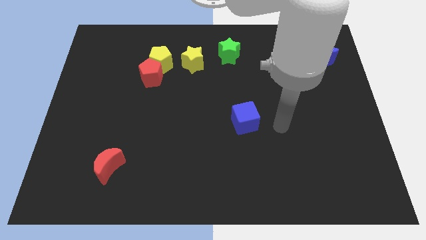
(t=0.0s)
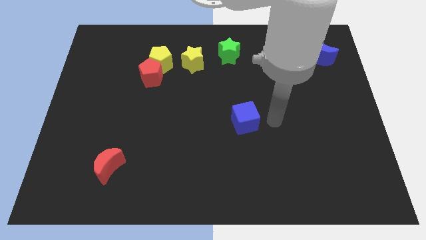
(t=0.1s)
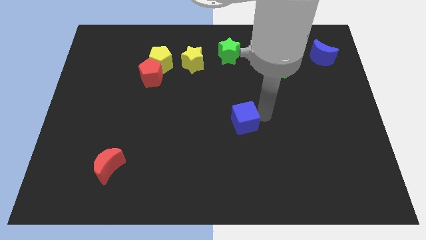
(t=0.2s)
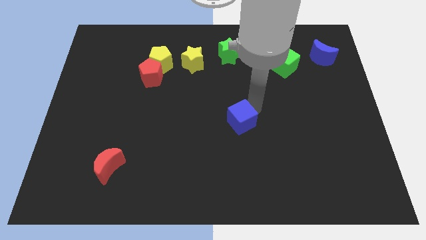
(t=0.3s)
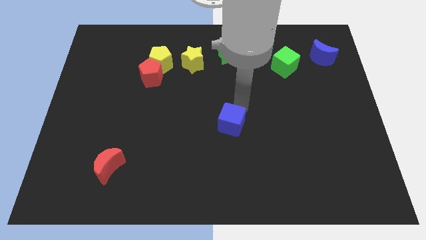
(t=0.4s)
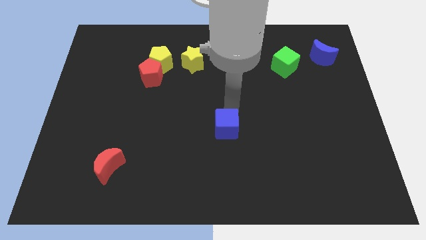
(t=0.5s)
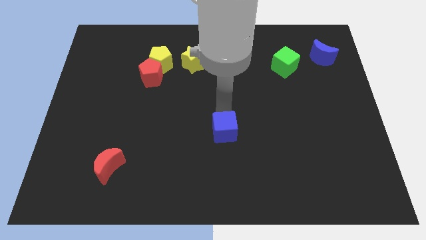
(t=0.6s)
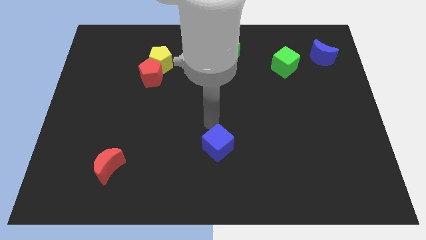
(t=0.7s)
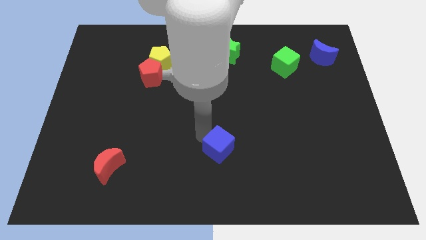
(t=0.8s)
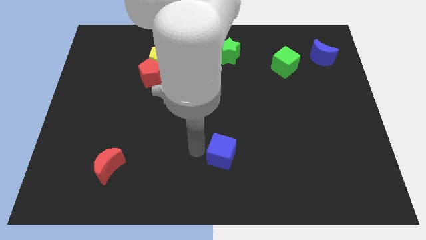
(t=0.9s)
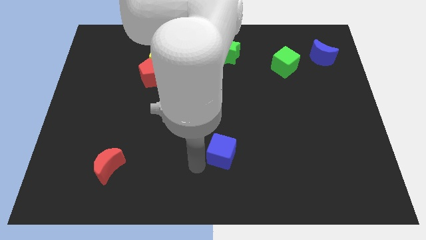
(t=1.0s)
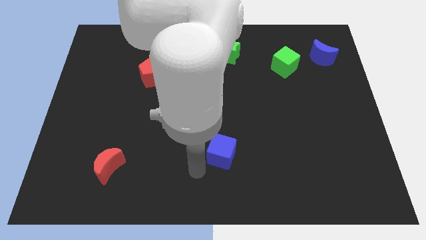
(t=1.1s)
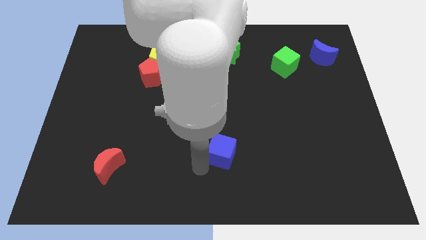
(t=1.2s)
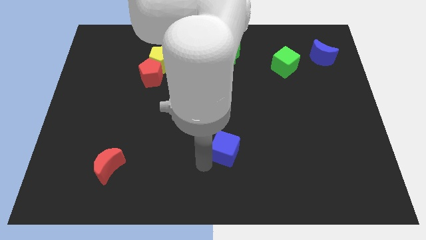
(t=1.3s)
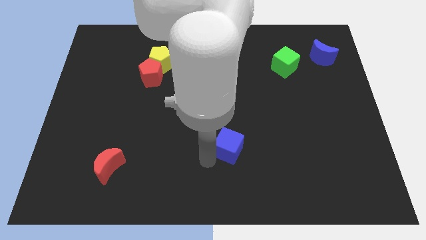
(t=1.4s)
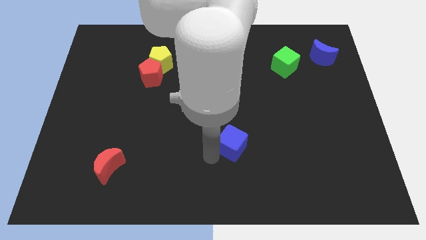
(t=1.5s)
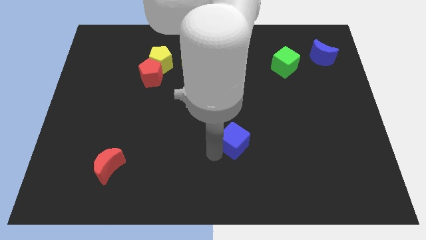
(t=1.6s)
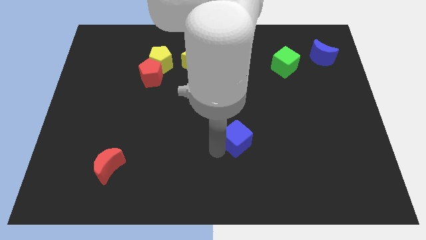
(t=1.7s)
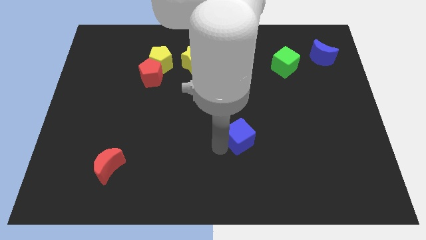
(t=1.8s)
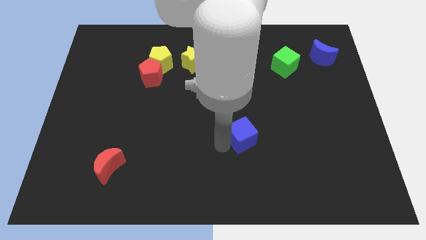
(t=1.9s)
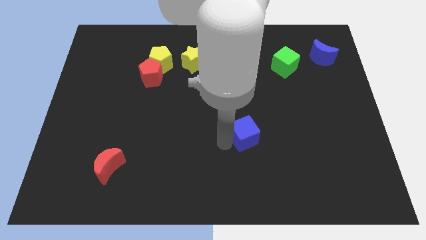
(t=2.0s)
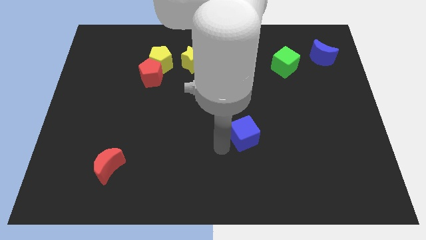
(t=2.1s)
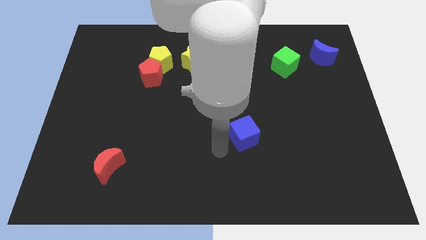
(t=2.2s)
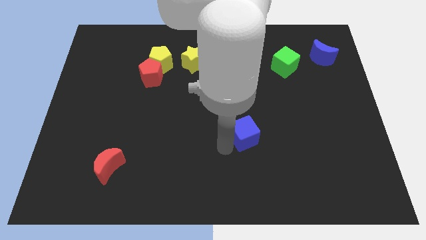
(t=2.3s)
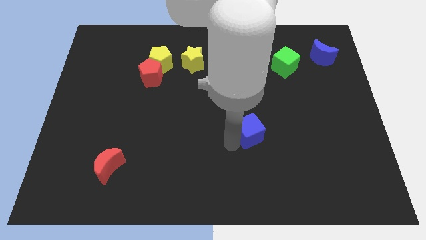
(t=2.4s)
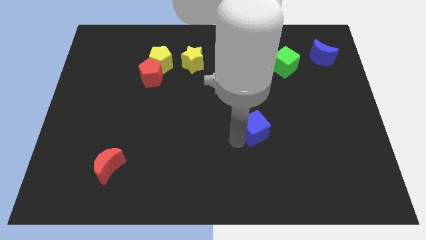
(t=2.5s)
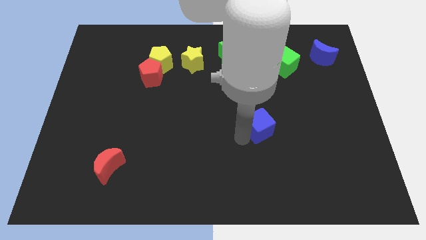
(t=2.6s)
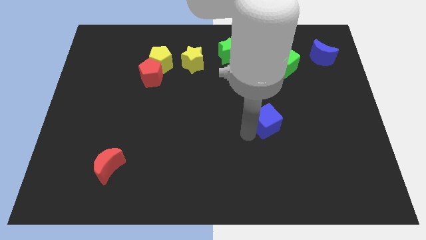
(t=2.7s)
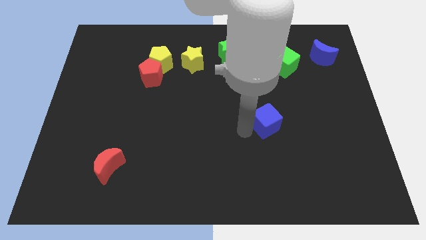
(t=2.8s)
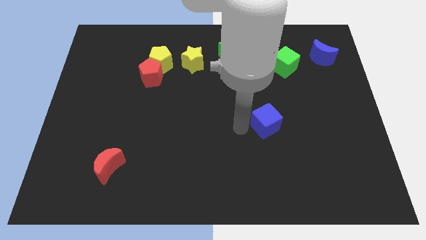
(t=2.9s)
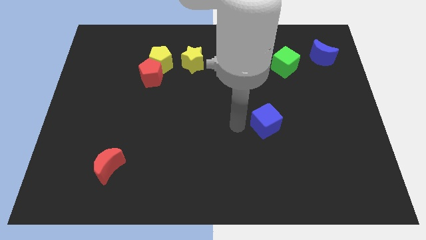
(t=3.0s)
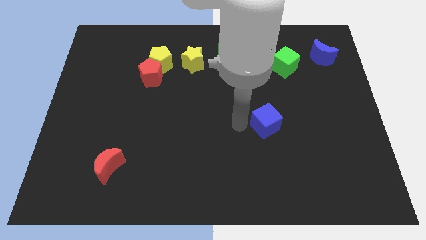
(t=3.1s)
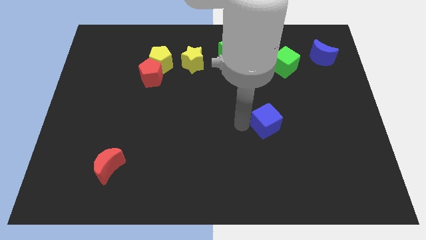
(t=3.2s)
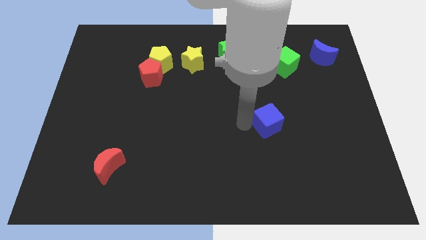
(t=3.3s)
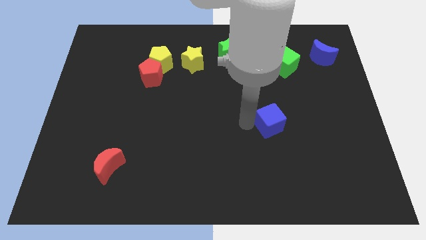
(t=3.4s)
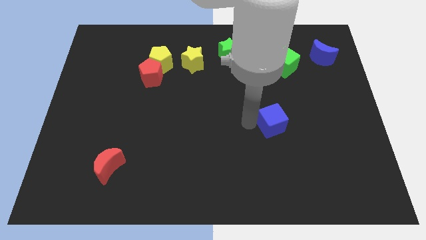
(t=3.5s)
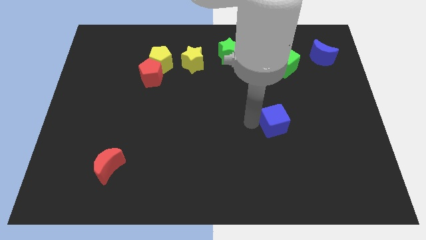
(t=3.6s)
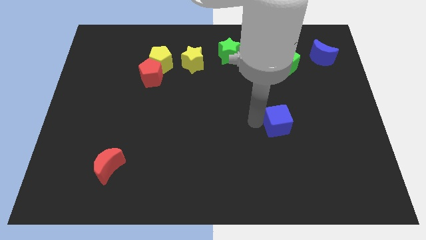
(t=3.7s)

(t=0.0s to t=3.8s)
push the blue cube to the right slightly

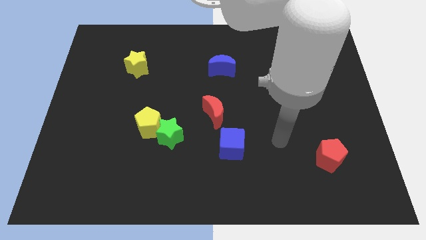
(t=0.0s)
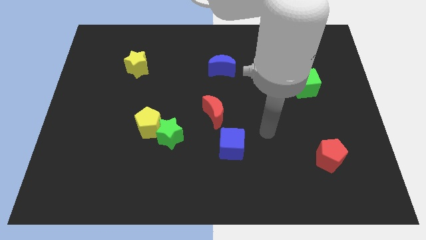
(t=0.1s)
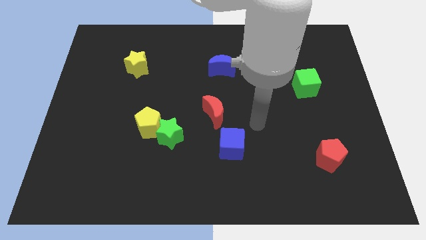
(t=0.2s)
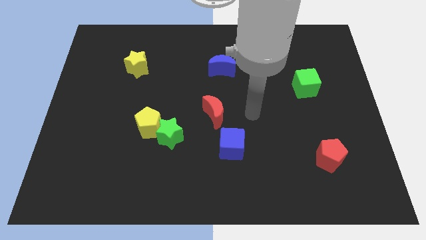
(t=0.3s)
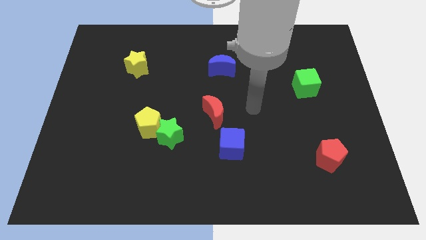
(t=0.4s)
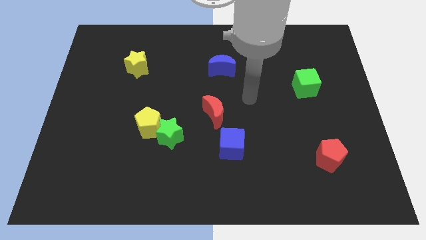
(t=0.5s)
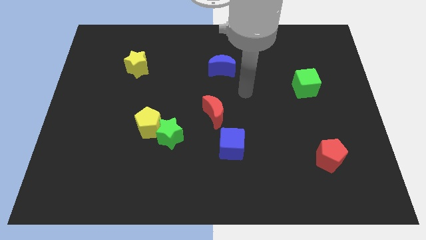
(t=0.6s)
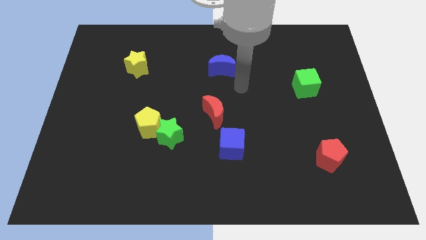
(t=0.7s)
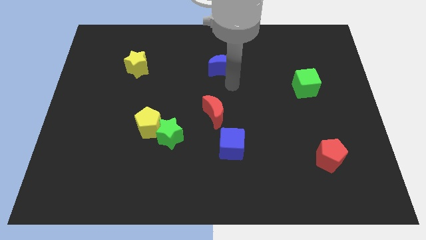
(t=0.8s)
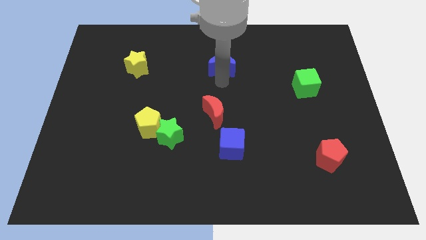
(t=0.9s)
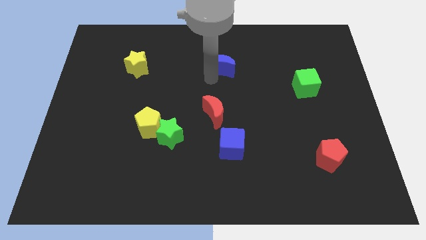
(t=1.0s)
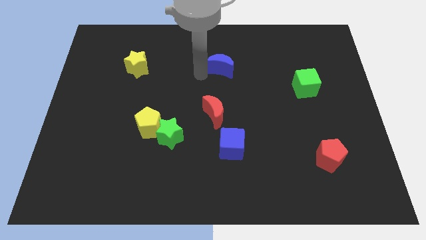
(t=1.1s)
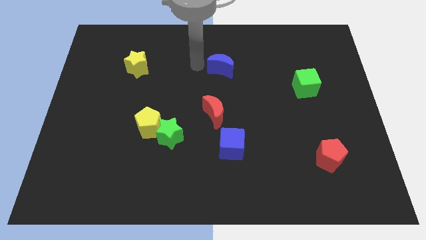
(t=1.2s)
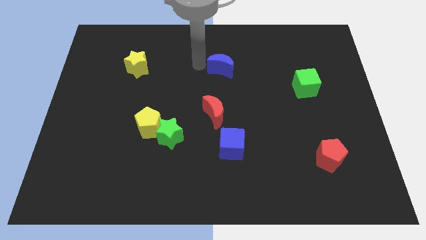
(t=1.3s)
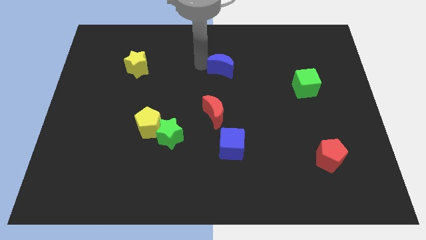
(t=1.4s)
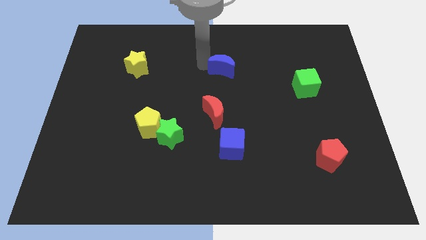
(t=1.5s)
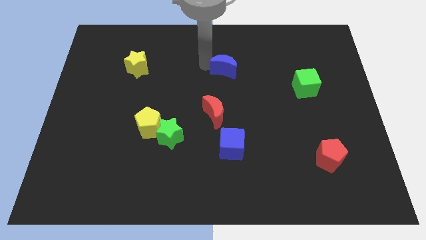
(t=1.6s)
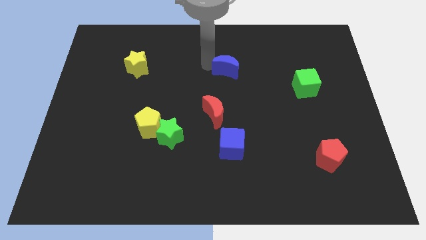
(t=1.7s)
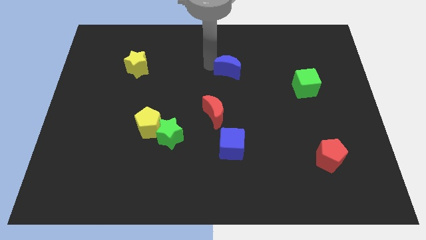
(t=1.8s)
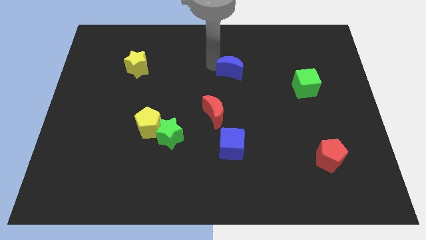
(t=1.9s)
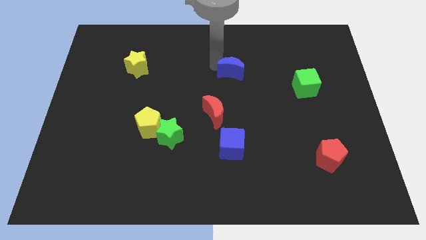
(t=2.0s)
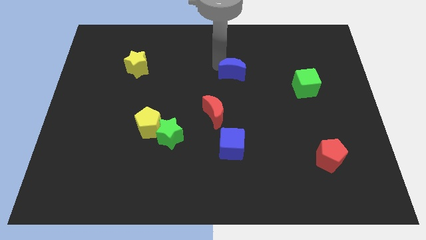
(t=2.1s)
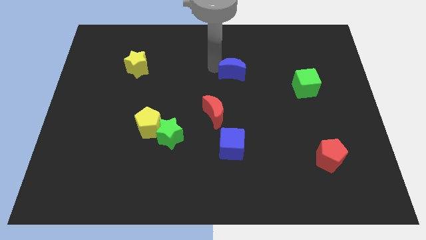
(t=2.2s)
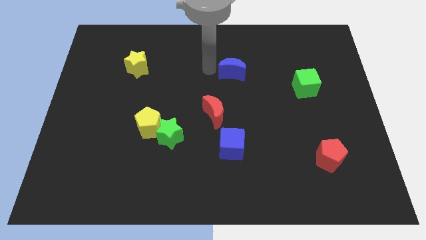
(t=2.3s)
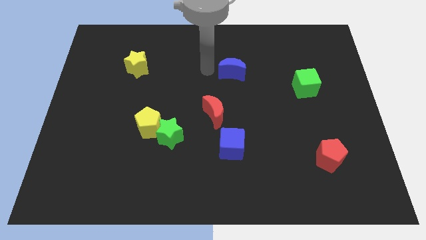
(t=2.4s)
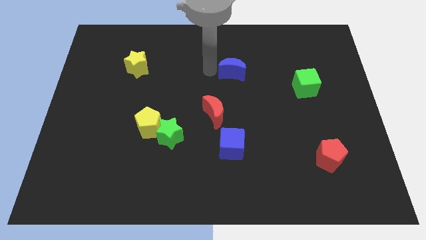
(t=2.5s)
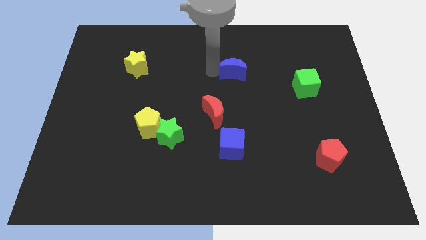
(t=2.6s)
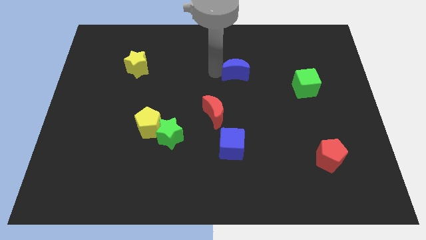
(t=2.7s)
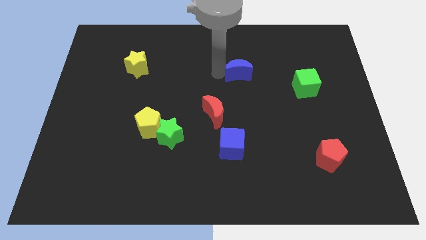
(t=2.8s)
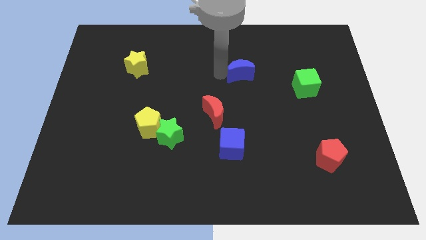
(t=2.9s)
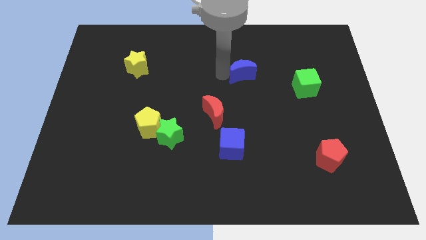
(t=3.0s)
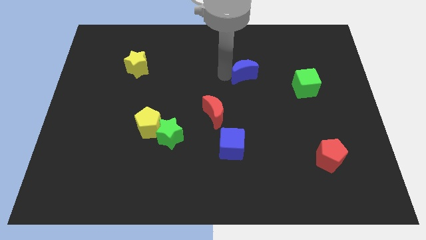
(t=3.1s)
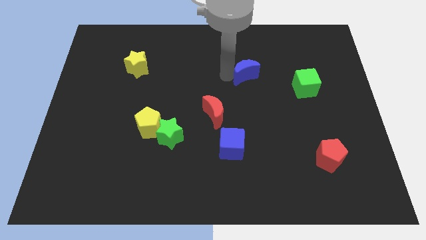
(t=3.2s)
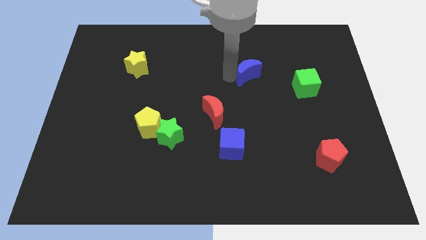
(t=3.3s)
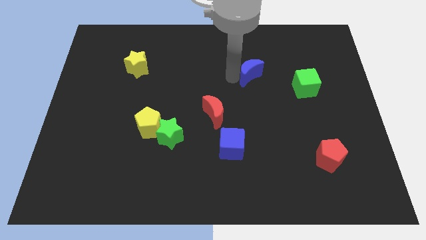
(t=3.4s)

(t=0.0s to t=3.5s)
slightly slide the blue moon to the right

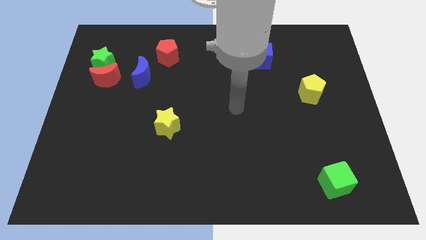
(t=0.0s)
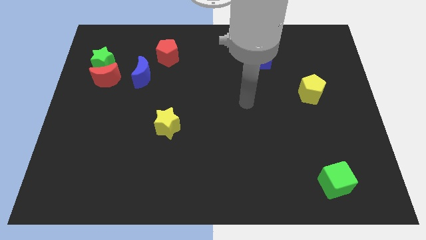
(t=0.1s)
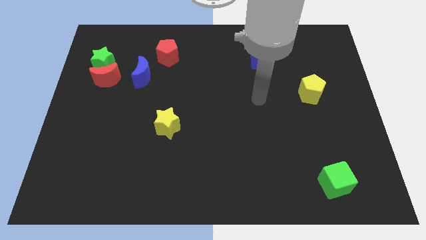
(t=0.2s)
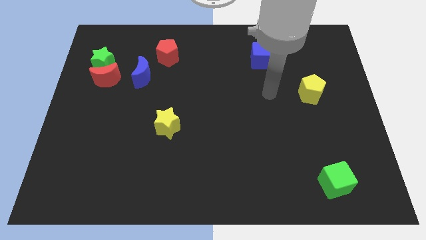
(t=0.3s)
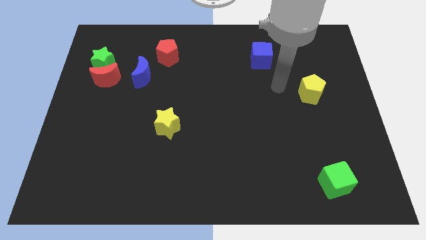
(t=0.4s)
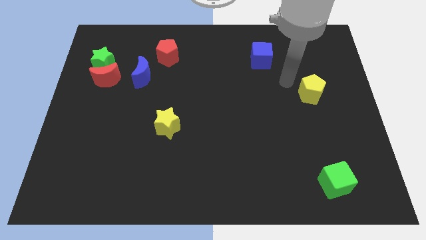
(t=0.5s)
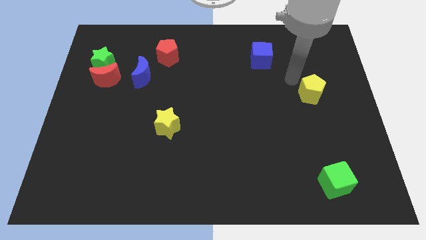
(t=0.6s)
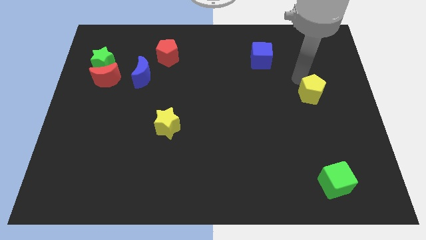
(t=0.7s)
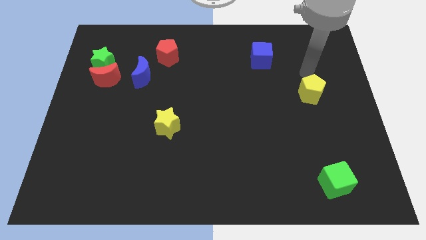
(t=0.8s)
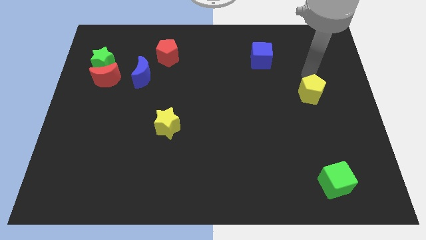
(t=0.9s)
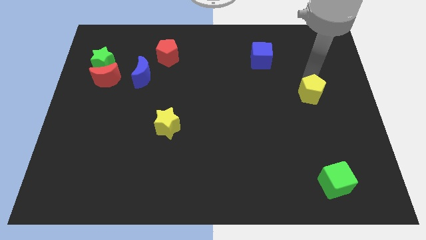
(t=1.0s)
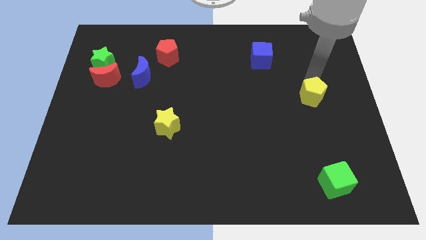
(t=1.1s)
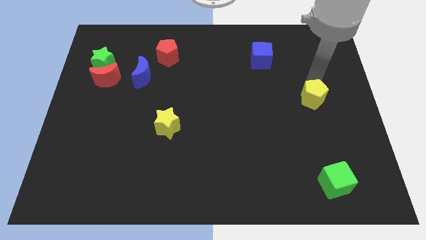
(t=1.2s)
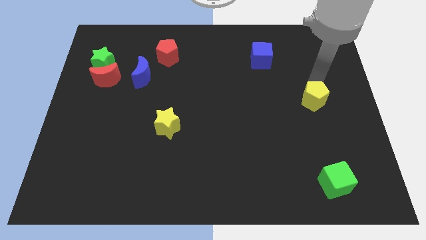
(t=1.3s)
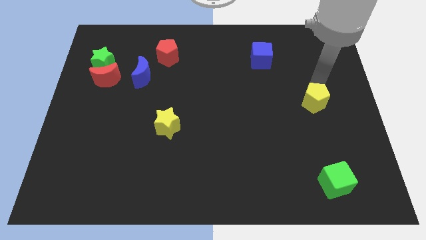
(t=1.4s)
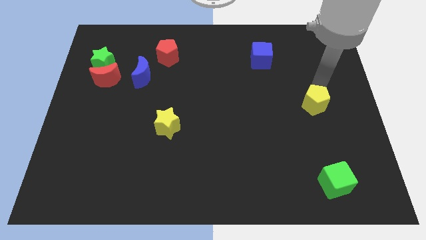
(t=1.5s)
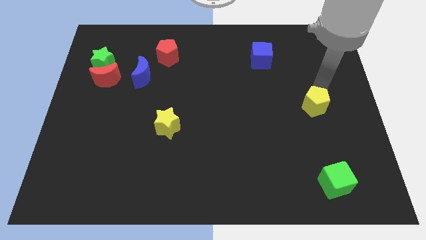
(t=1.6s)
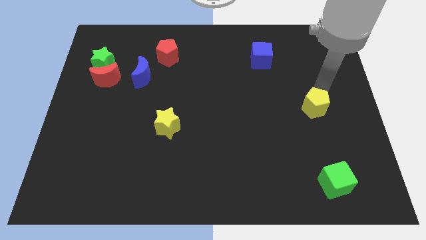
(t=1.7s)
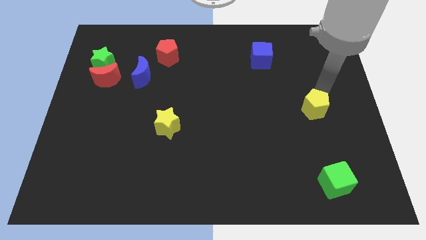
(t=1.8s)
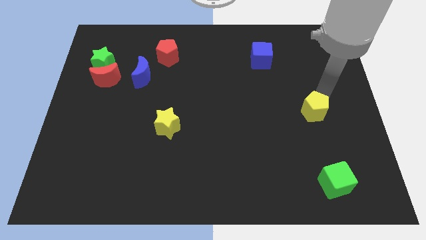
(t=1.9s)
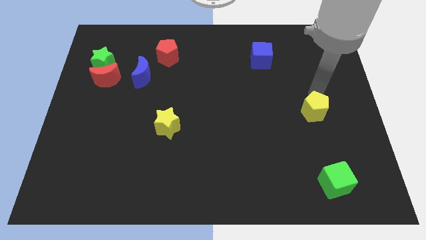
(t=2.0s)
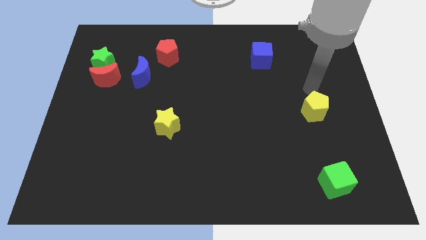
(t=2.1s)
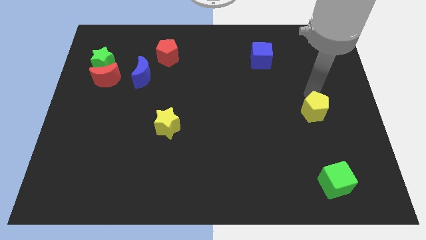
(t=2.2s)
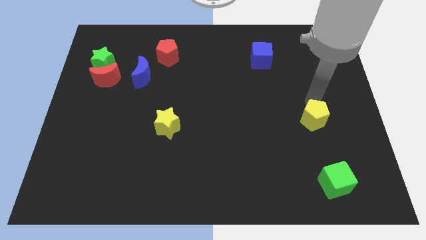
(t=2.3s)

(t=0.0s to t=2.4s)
move the yellow pentagon somewhat downwards
